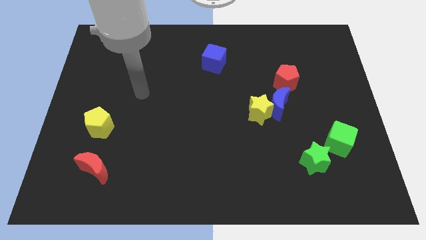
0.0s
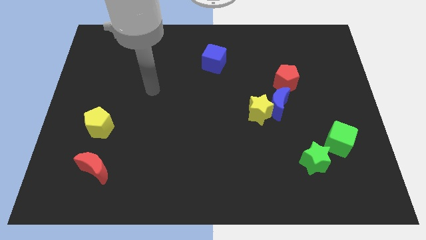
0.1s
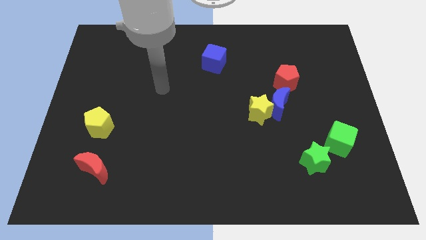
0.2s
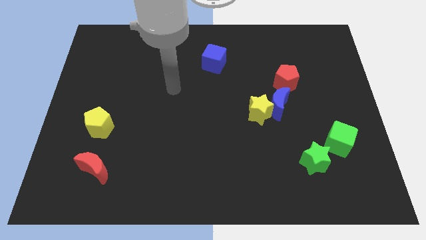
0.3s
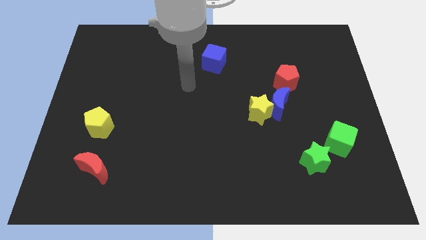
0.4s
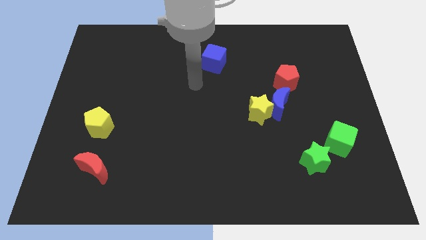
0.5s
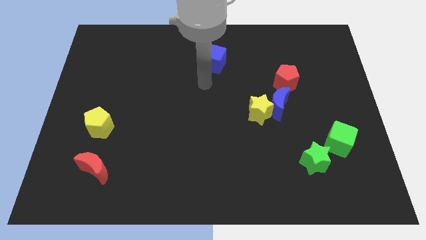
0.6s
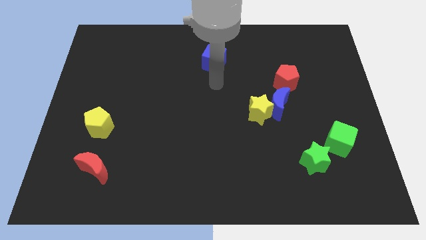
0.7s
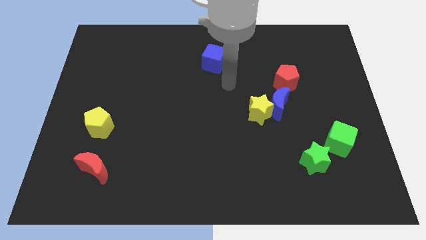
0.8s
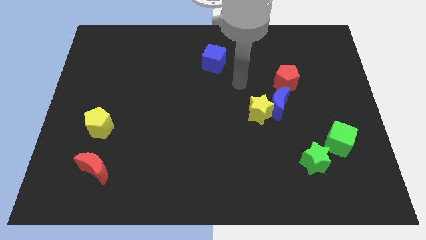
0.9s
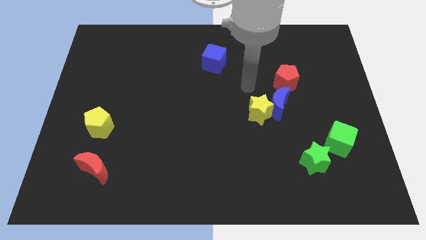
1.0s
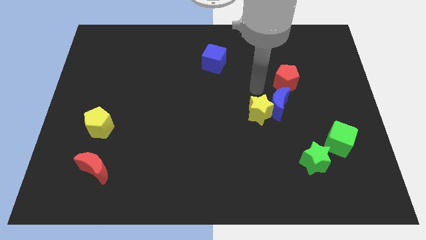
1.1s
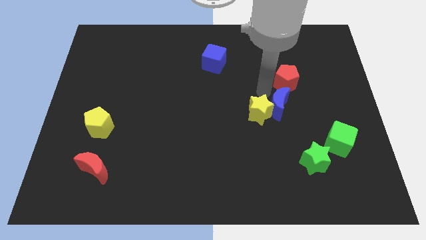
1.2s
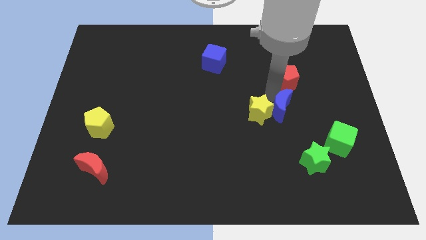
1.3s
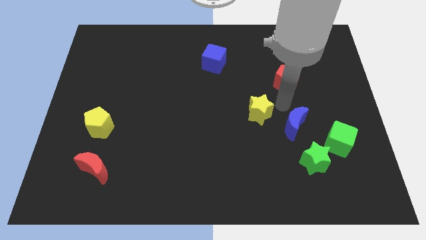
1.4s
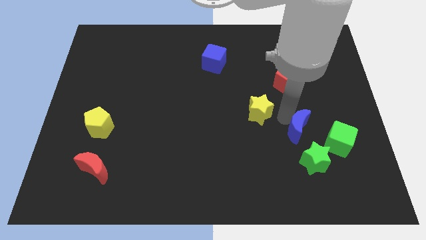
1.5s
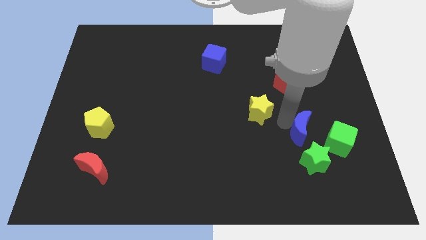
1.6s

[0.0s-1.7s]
separate the yellow star from the blue moon

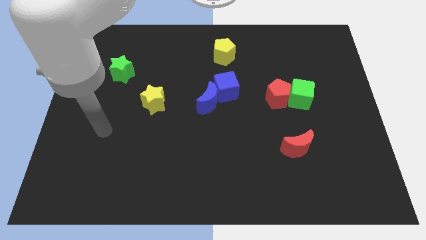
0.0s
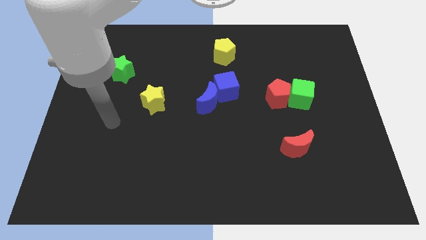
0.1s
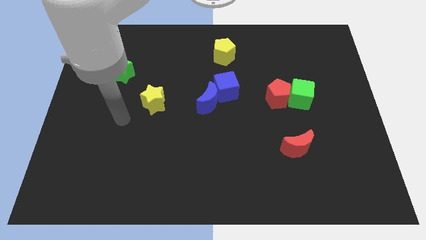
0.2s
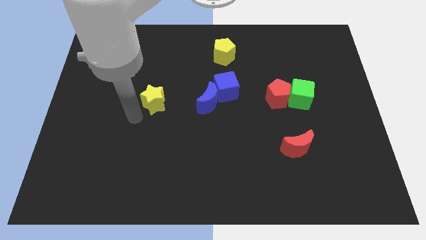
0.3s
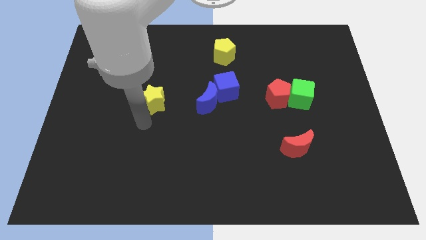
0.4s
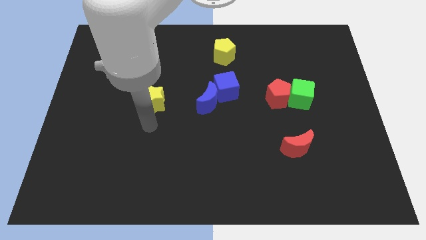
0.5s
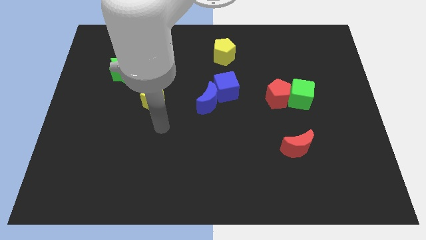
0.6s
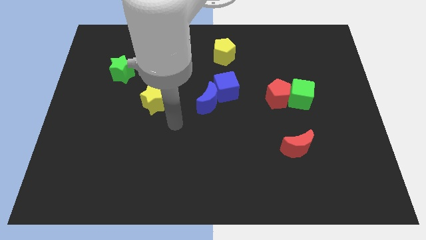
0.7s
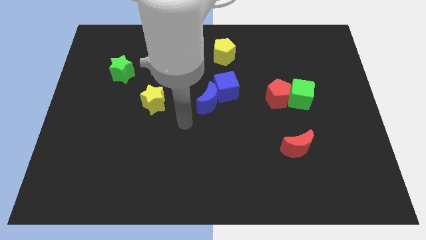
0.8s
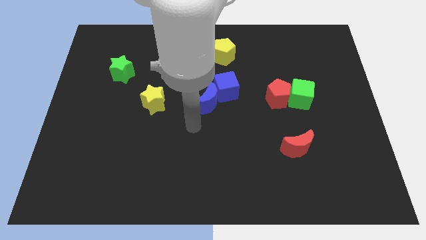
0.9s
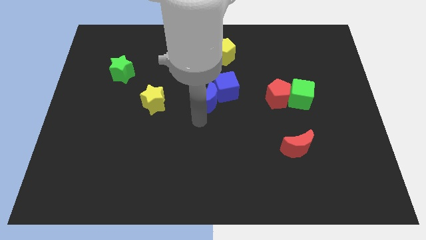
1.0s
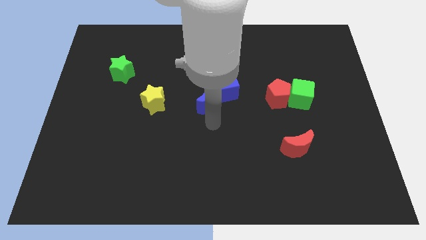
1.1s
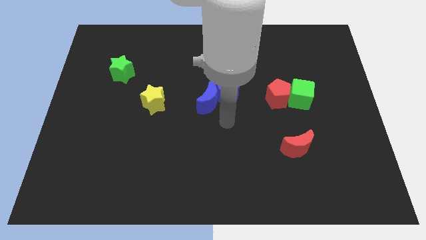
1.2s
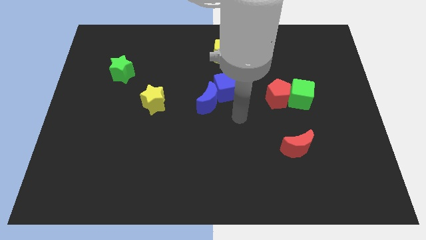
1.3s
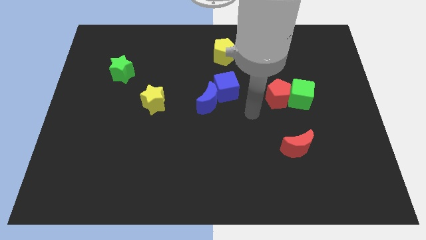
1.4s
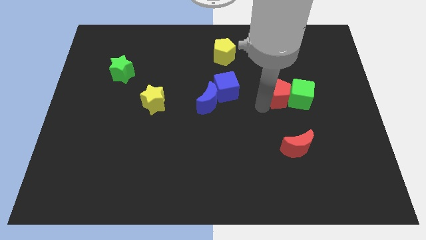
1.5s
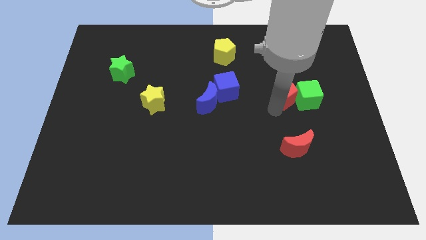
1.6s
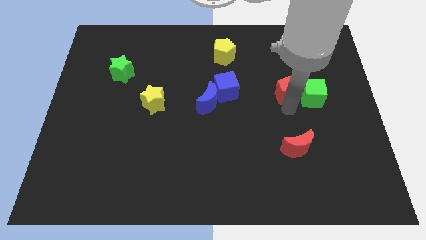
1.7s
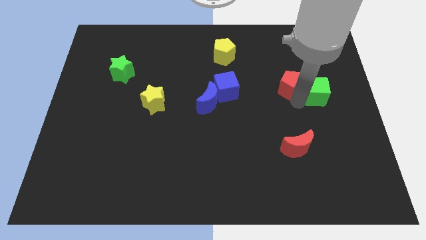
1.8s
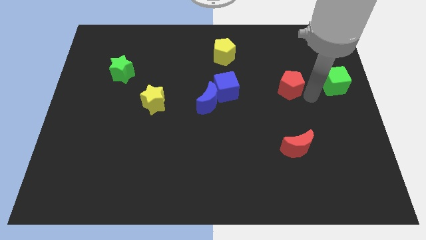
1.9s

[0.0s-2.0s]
pull the red pentagon apart from the green cube

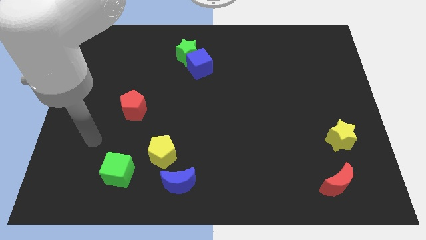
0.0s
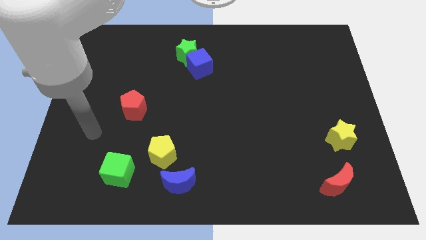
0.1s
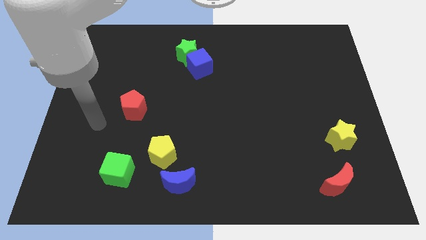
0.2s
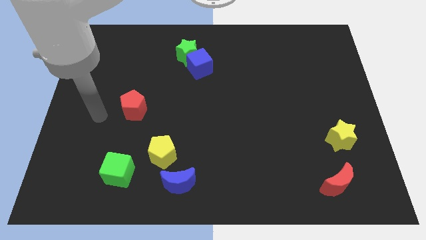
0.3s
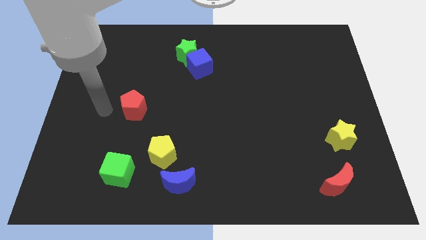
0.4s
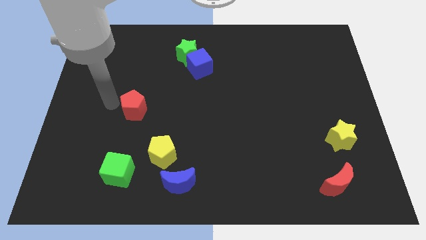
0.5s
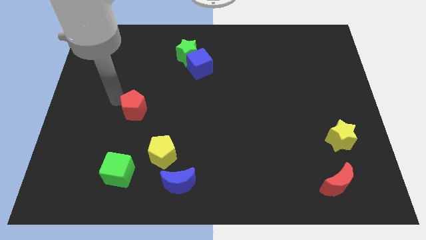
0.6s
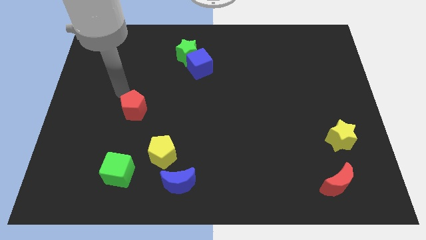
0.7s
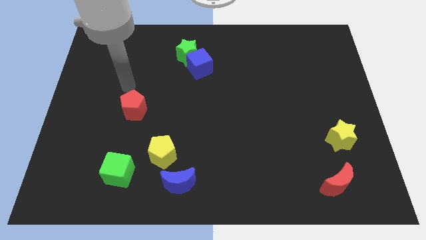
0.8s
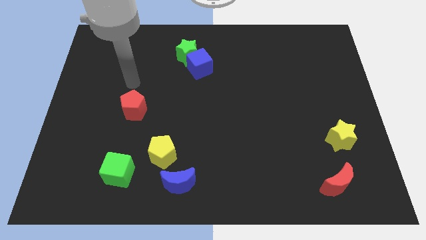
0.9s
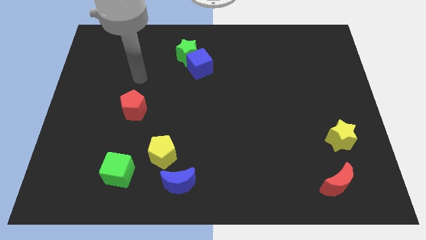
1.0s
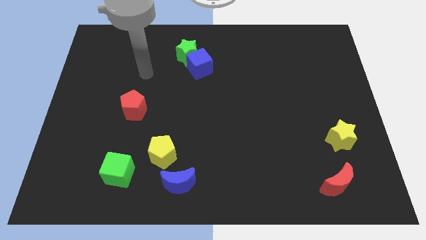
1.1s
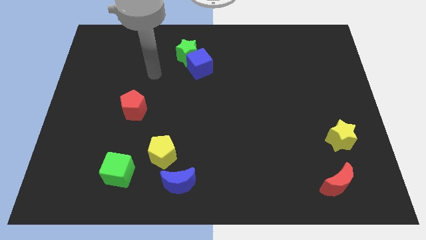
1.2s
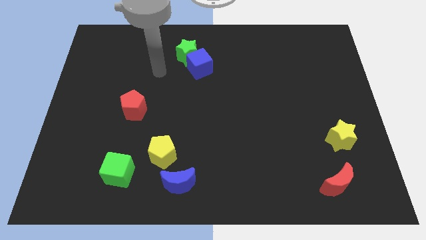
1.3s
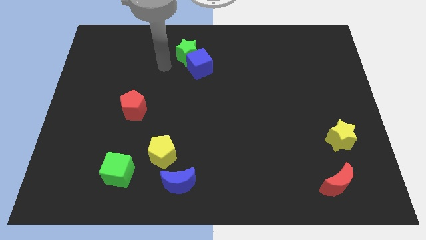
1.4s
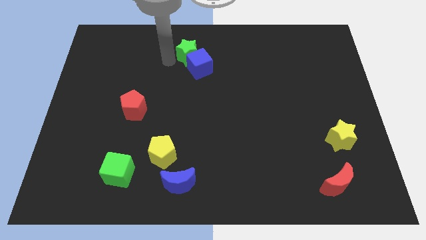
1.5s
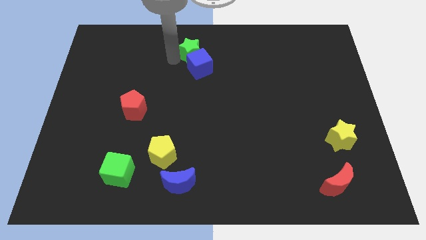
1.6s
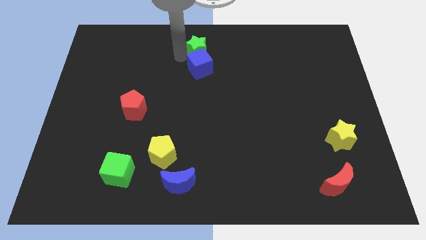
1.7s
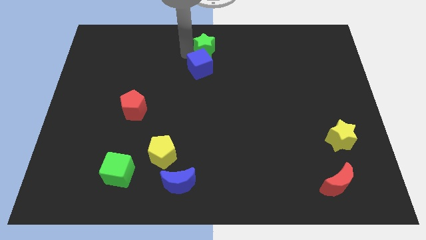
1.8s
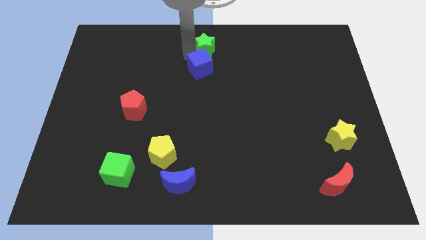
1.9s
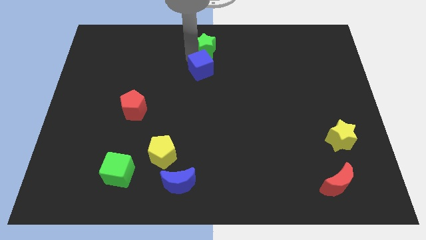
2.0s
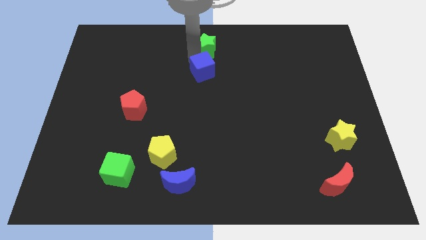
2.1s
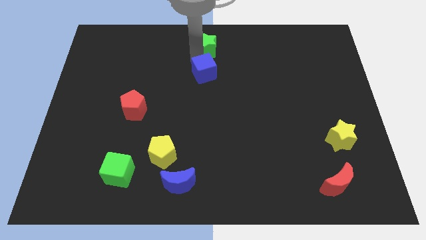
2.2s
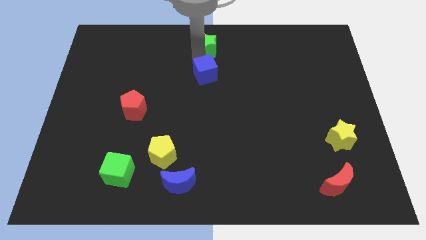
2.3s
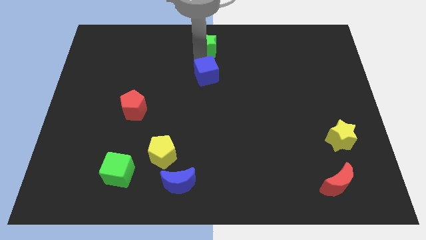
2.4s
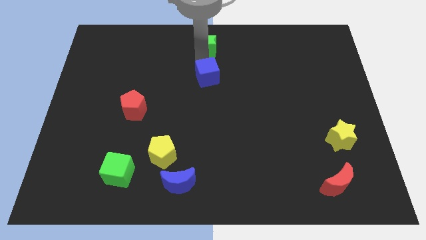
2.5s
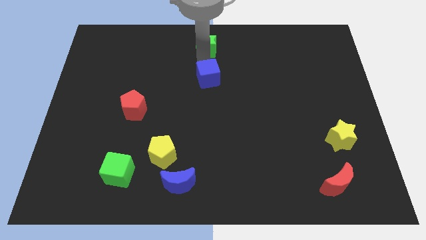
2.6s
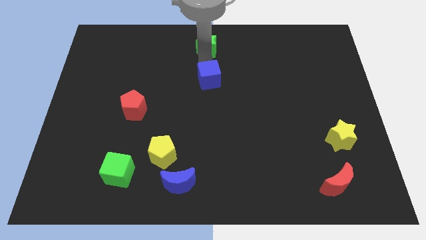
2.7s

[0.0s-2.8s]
move the blue cube away from the green star

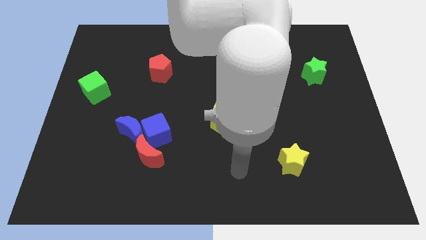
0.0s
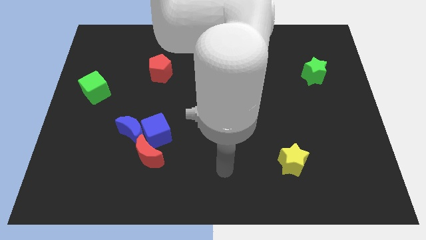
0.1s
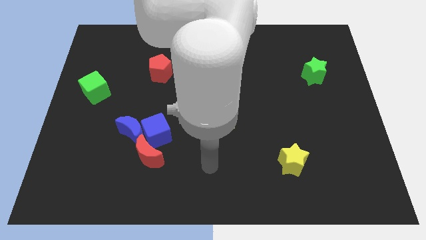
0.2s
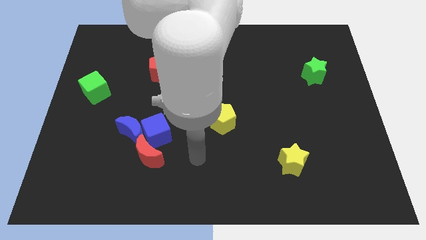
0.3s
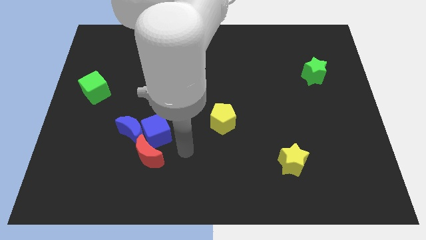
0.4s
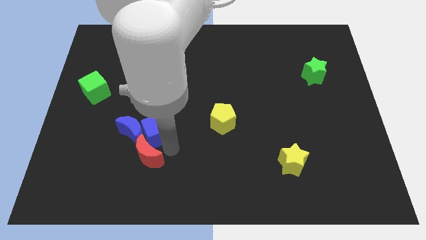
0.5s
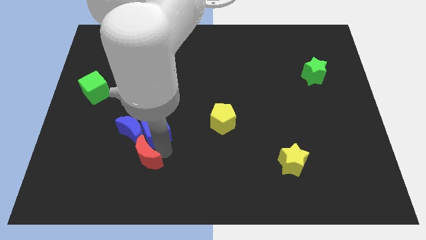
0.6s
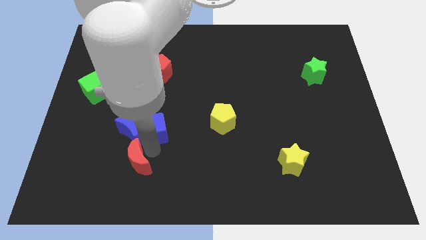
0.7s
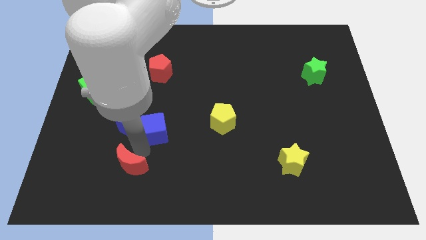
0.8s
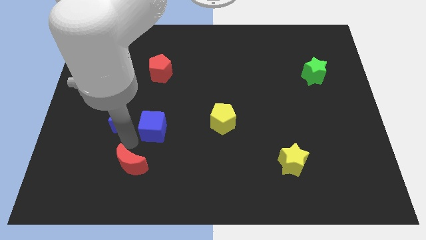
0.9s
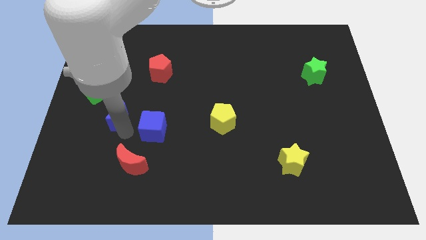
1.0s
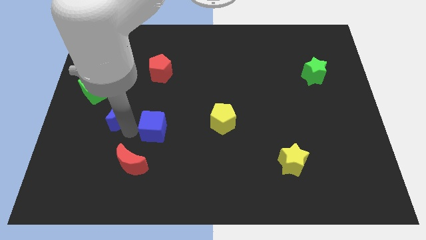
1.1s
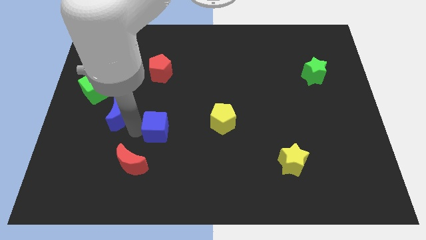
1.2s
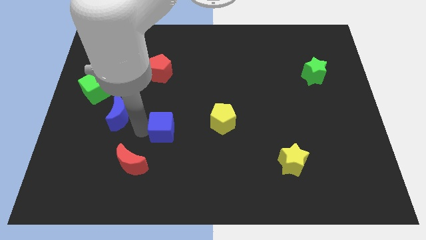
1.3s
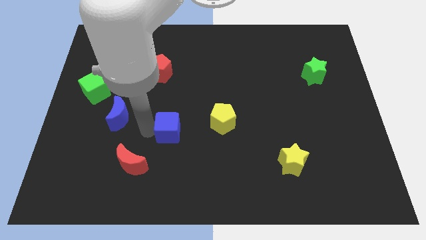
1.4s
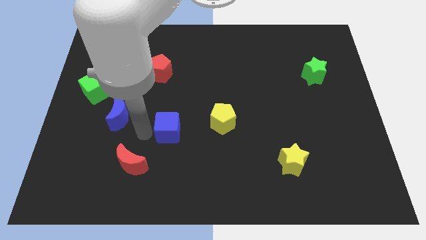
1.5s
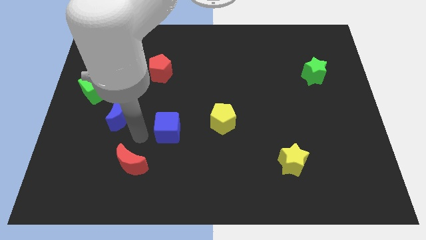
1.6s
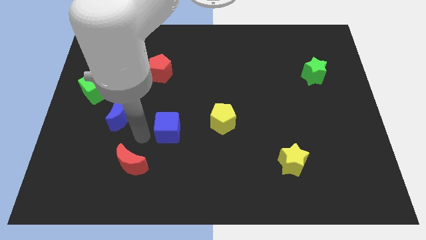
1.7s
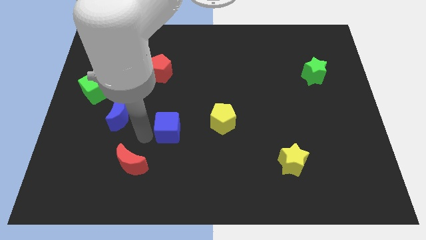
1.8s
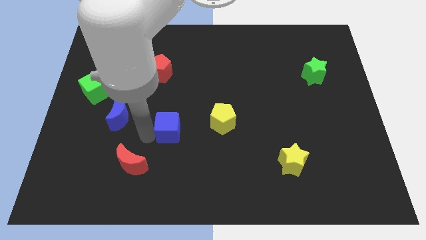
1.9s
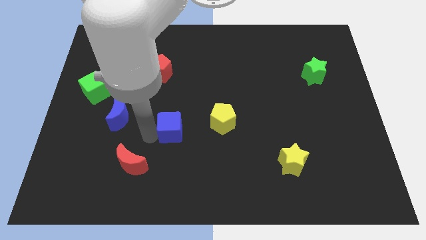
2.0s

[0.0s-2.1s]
move the blue cube away from the blue moon and red moon

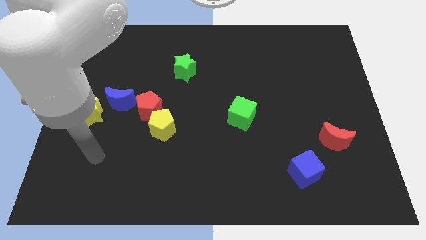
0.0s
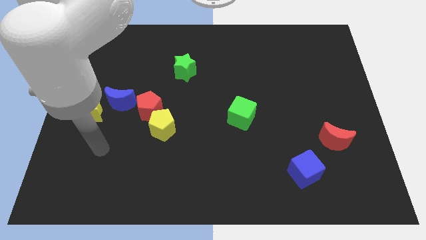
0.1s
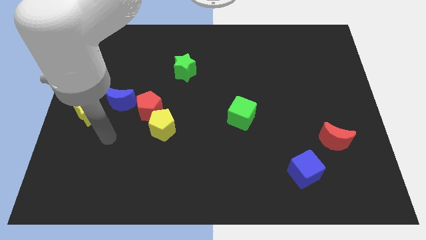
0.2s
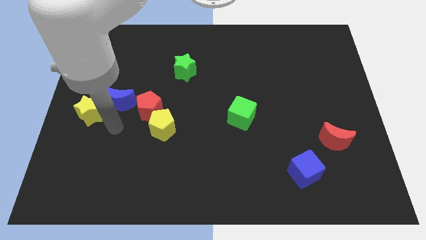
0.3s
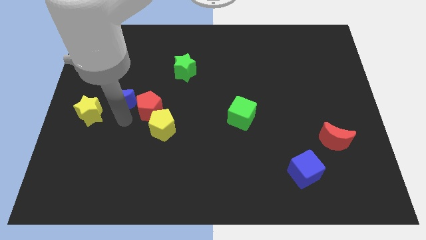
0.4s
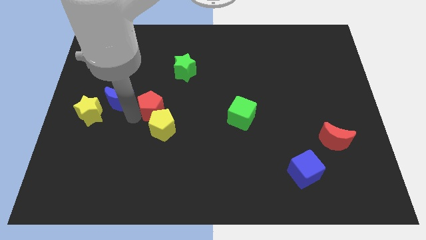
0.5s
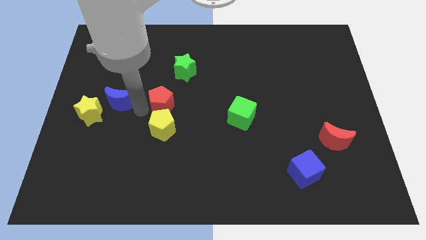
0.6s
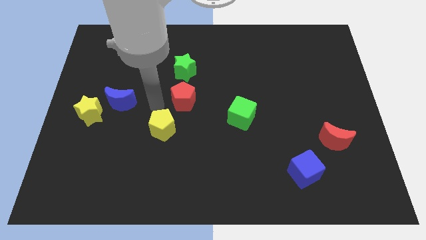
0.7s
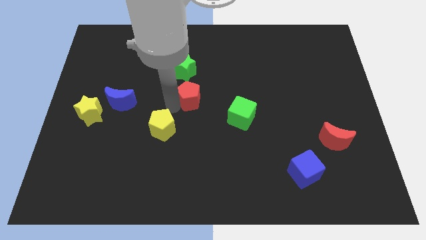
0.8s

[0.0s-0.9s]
pull the yellow pentagon apart from the red pentagon
